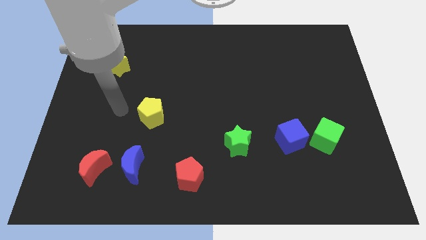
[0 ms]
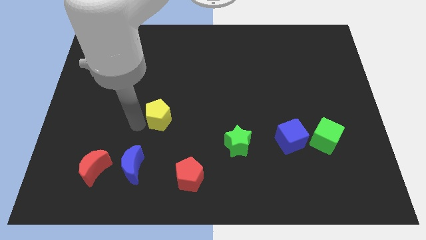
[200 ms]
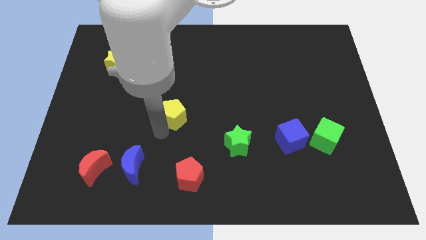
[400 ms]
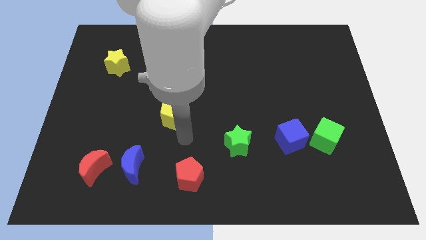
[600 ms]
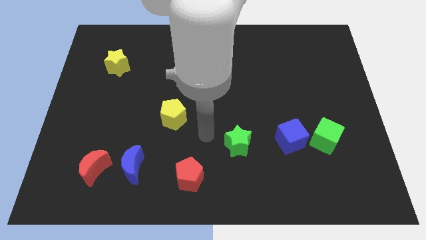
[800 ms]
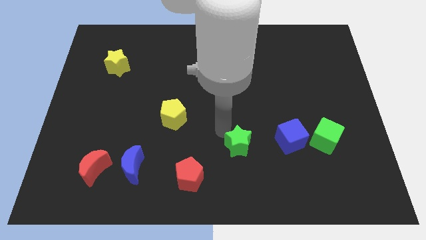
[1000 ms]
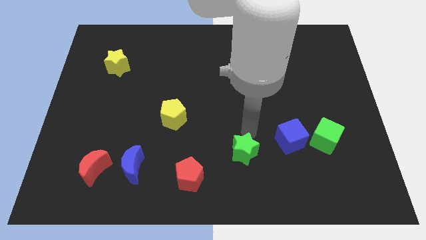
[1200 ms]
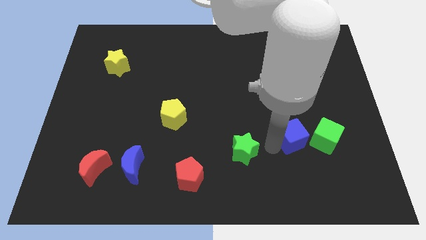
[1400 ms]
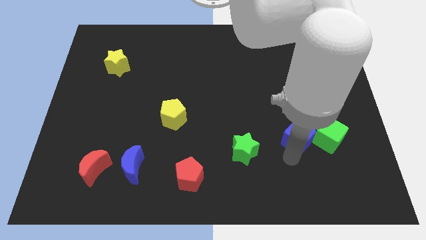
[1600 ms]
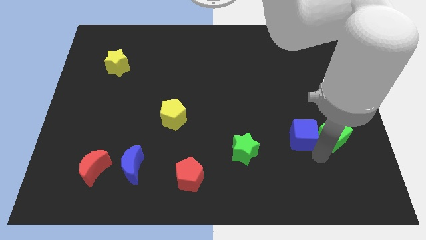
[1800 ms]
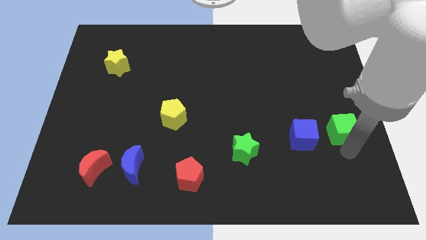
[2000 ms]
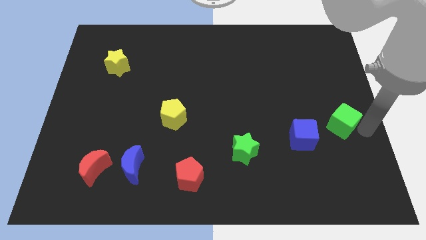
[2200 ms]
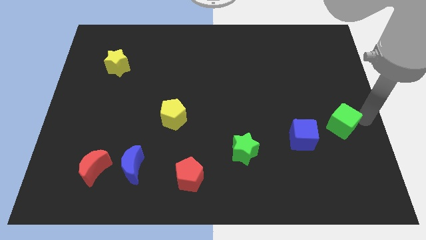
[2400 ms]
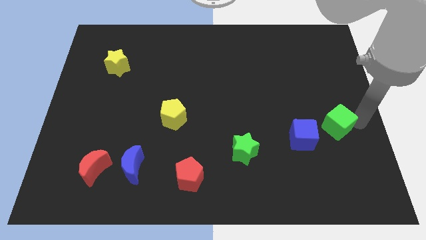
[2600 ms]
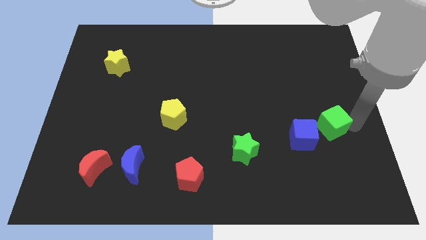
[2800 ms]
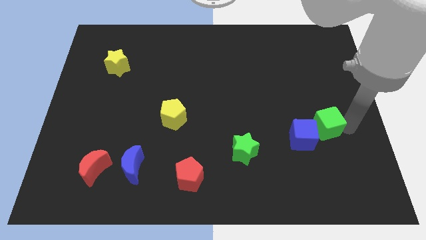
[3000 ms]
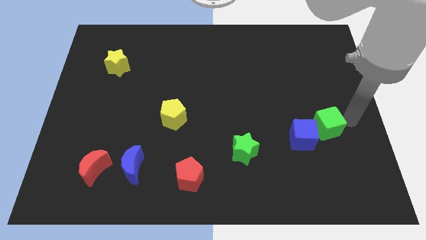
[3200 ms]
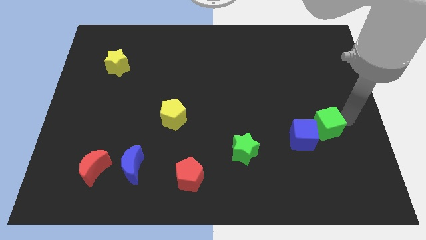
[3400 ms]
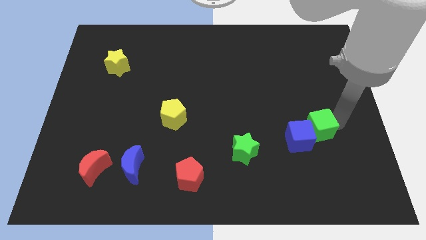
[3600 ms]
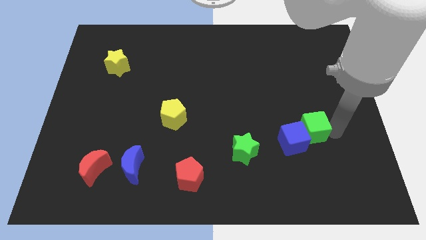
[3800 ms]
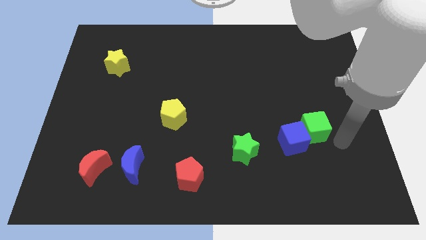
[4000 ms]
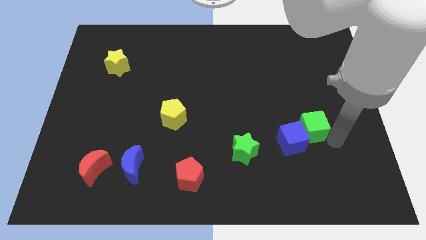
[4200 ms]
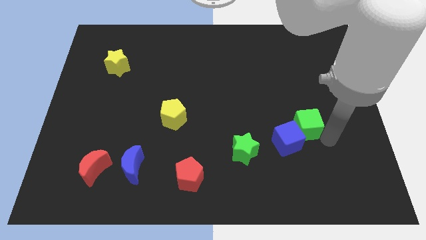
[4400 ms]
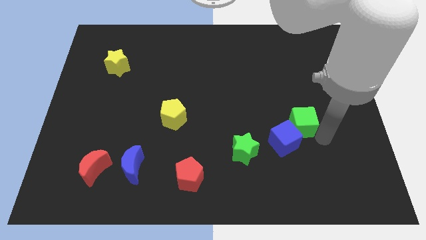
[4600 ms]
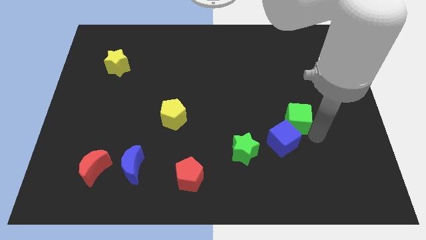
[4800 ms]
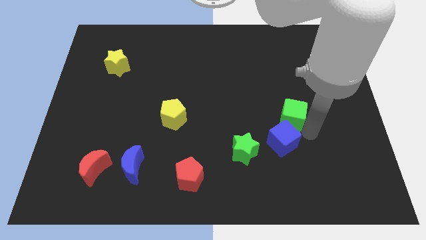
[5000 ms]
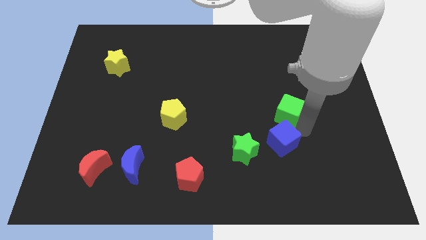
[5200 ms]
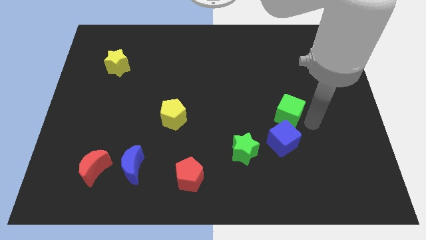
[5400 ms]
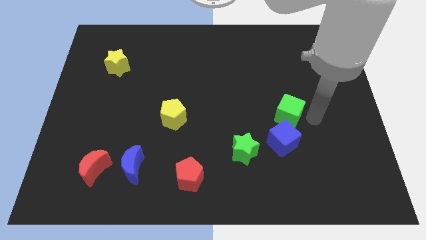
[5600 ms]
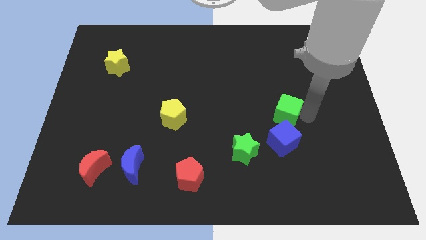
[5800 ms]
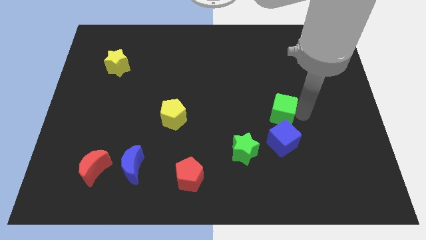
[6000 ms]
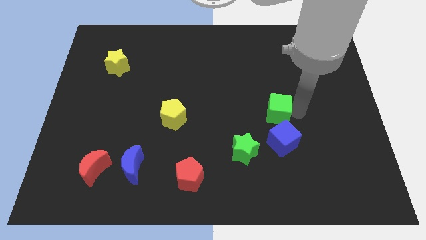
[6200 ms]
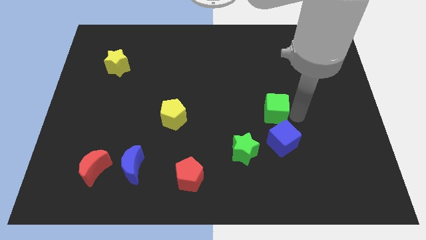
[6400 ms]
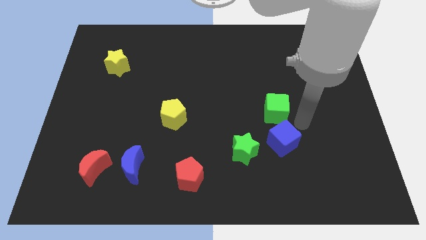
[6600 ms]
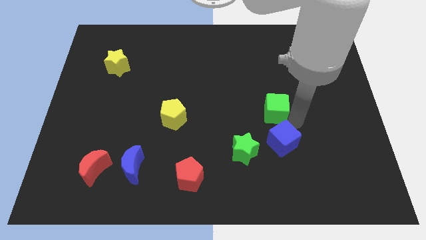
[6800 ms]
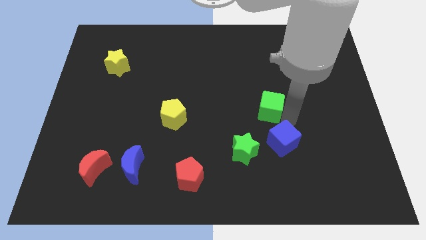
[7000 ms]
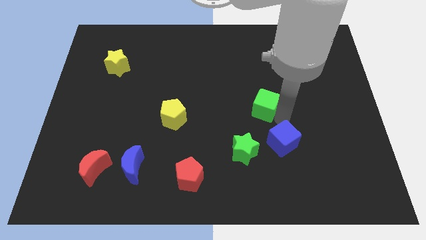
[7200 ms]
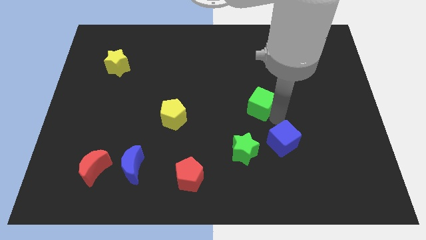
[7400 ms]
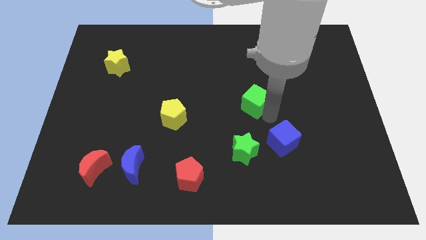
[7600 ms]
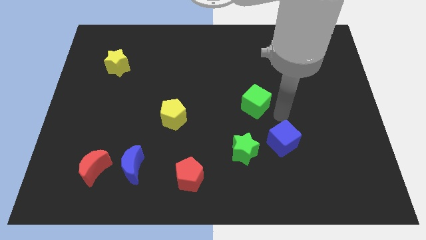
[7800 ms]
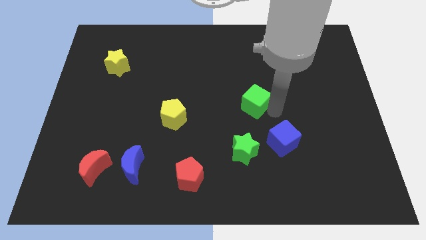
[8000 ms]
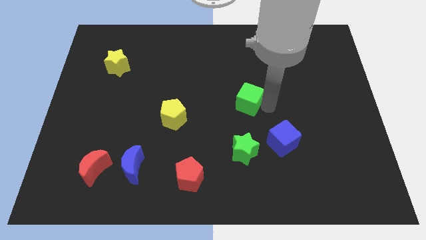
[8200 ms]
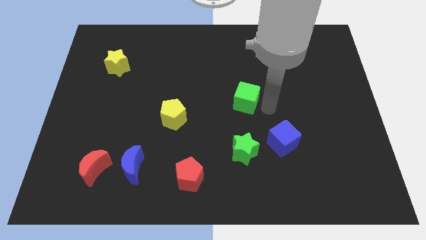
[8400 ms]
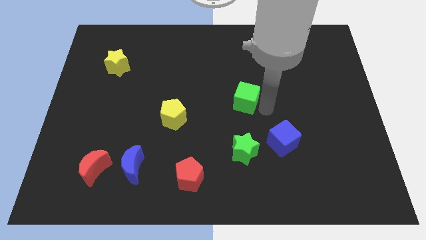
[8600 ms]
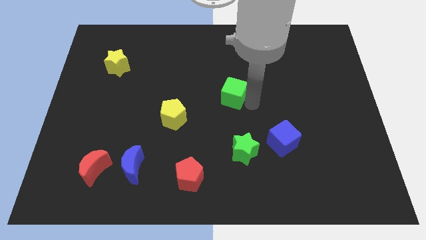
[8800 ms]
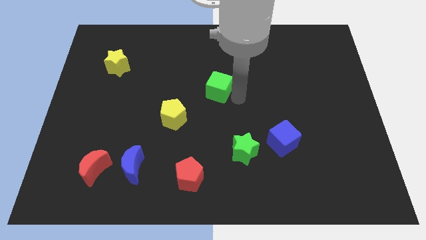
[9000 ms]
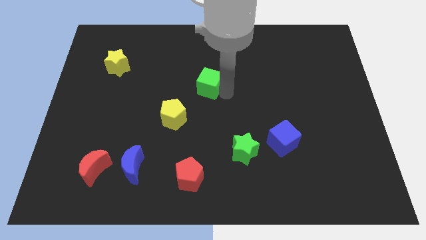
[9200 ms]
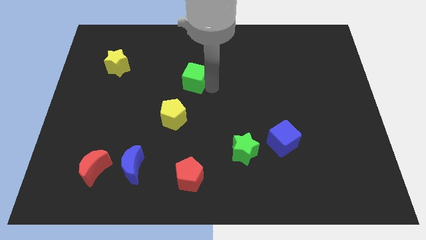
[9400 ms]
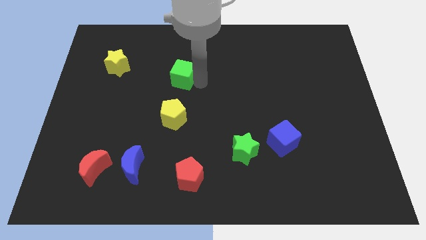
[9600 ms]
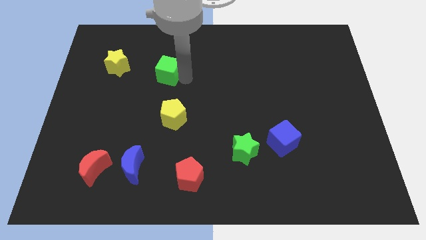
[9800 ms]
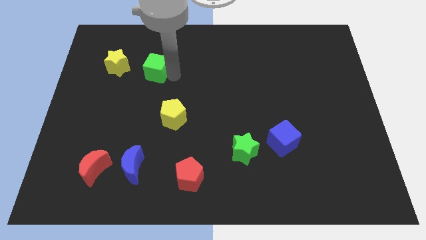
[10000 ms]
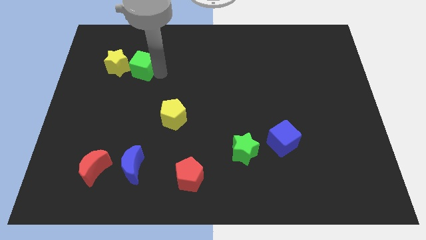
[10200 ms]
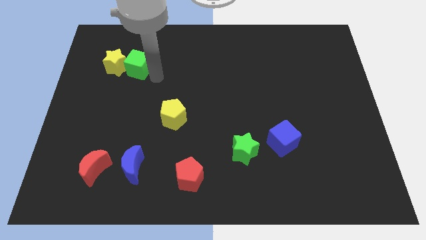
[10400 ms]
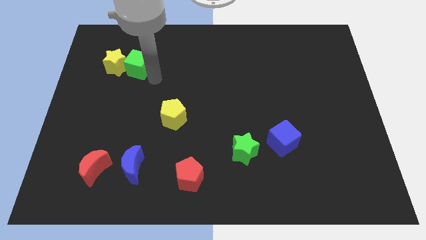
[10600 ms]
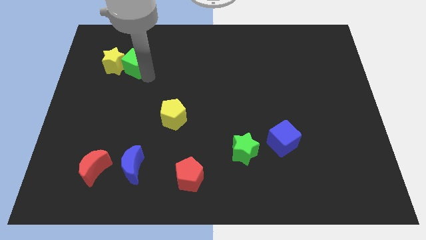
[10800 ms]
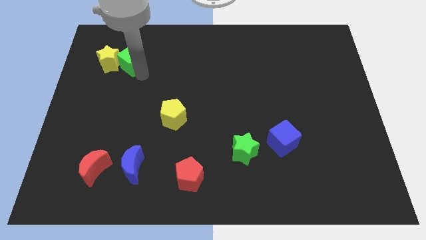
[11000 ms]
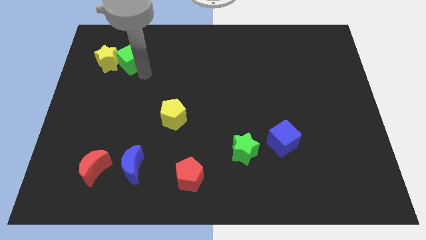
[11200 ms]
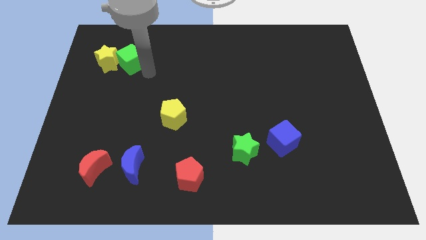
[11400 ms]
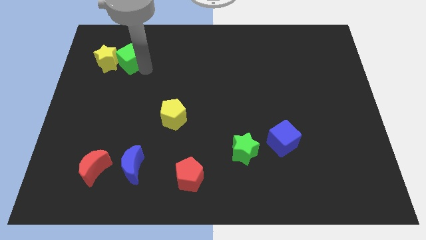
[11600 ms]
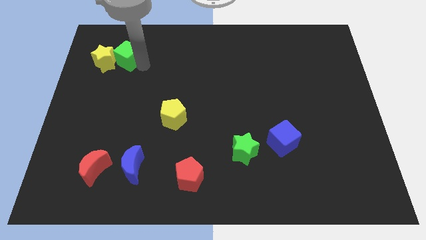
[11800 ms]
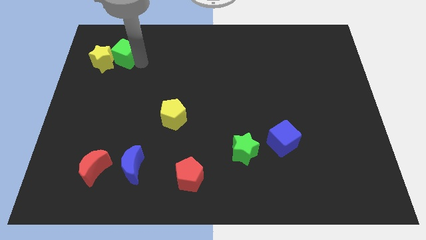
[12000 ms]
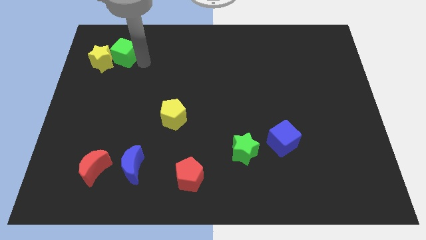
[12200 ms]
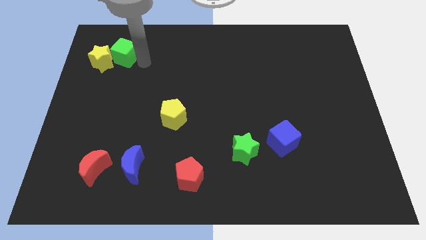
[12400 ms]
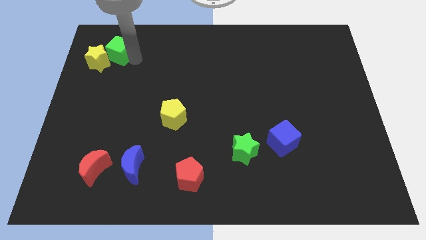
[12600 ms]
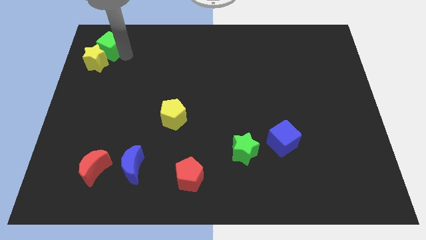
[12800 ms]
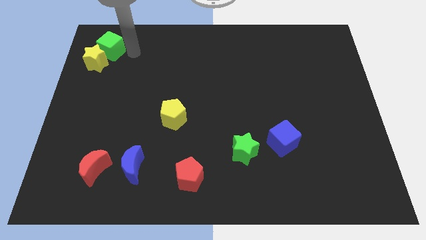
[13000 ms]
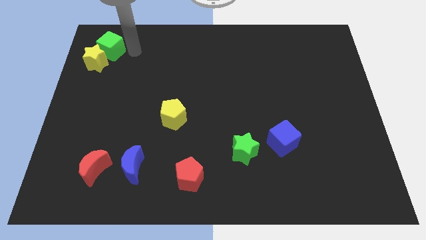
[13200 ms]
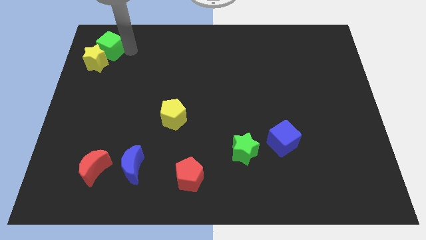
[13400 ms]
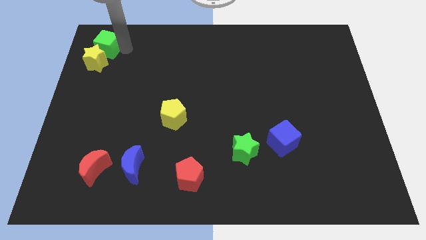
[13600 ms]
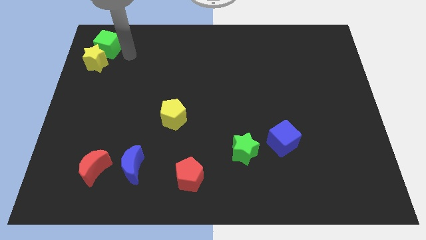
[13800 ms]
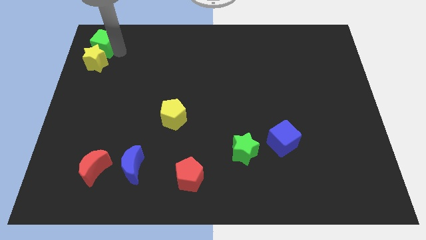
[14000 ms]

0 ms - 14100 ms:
push the green cube to the top left
